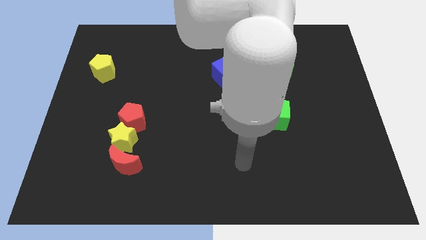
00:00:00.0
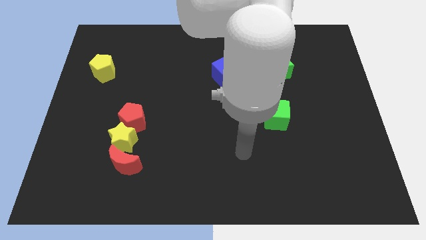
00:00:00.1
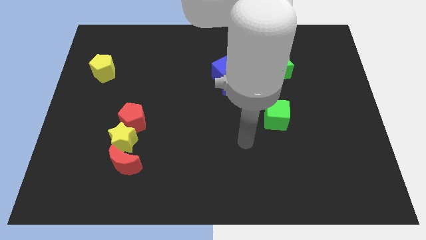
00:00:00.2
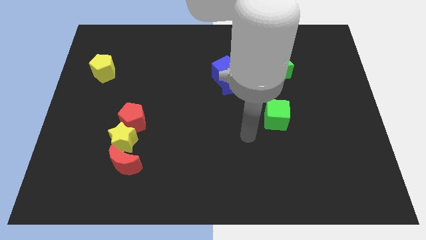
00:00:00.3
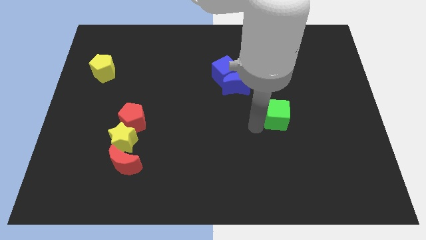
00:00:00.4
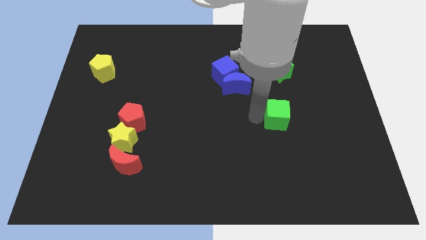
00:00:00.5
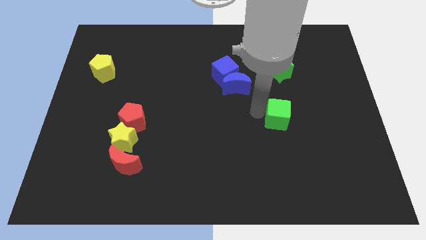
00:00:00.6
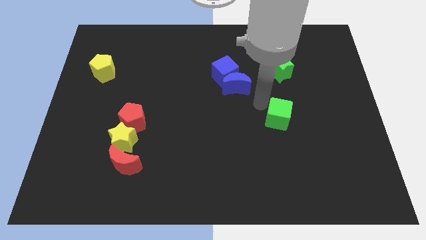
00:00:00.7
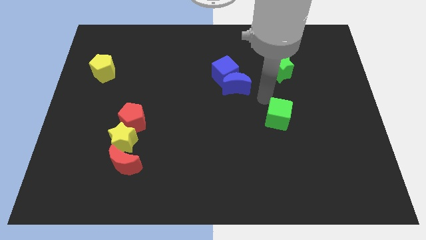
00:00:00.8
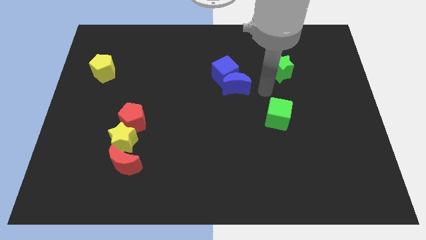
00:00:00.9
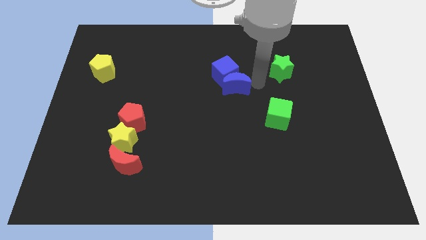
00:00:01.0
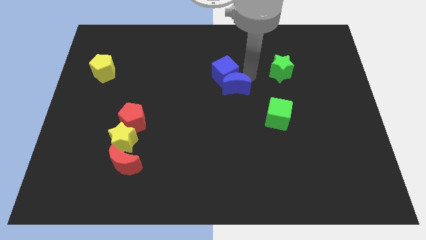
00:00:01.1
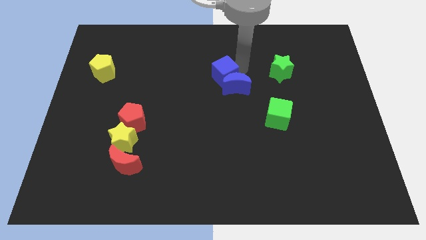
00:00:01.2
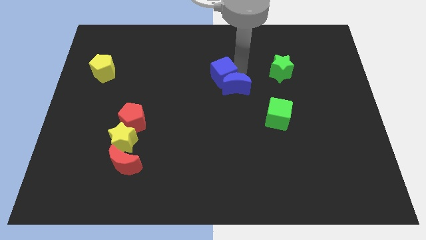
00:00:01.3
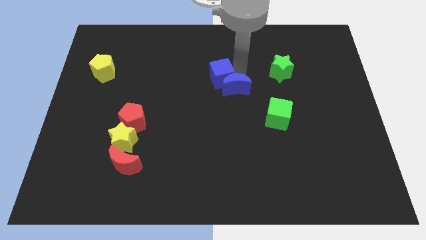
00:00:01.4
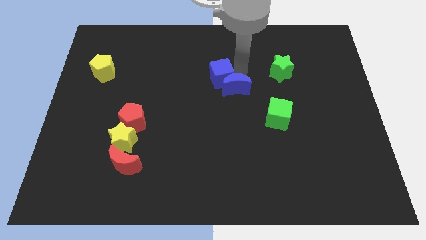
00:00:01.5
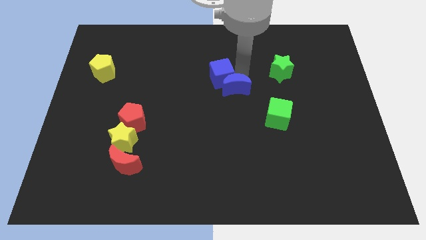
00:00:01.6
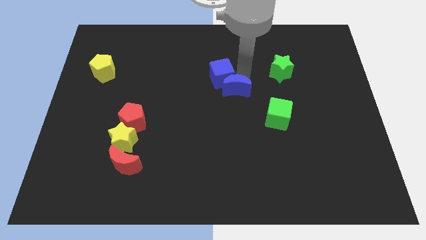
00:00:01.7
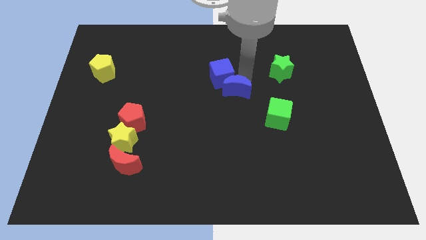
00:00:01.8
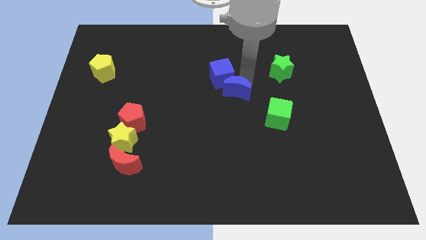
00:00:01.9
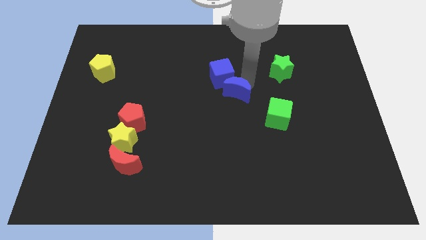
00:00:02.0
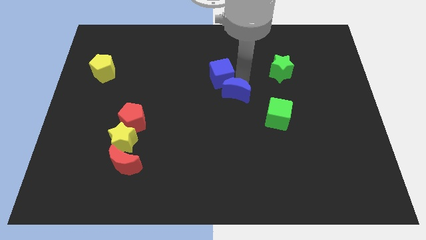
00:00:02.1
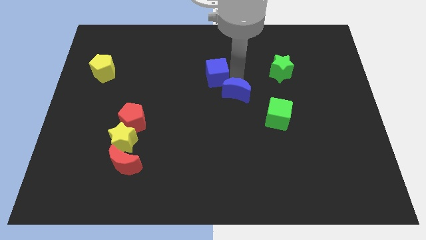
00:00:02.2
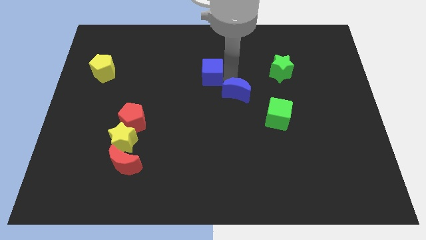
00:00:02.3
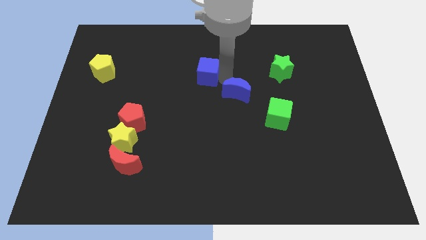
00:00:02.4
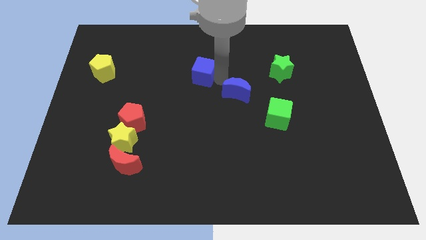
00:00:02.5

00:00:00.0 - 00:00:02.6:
move the blue moon away from the blue cube

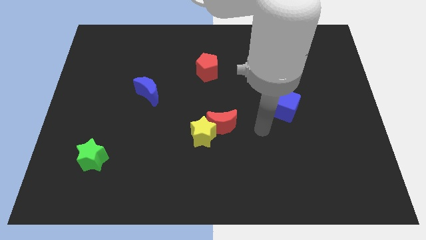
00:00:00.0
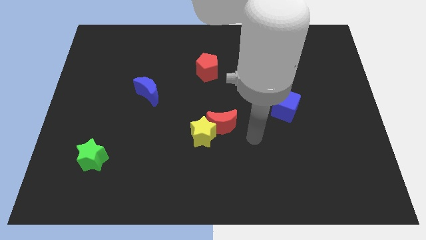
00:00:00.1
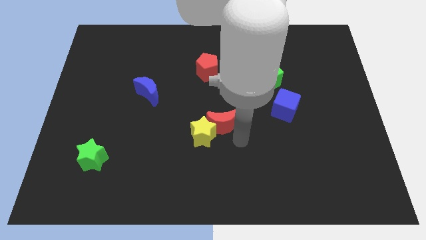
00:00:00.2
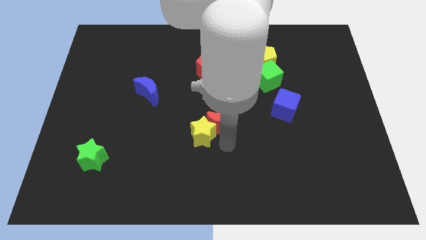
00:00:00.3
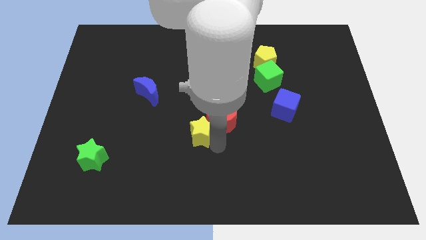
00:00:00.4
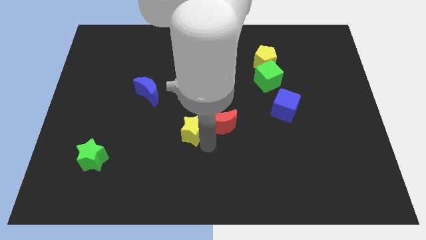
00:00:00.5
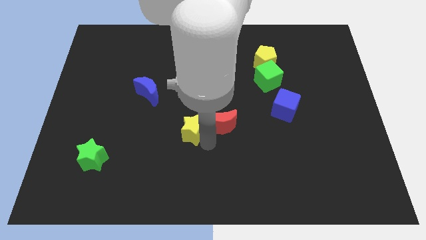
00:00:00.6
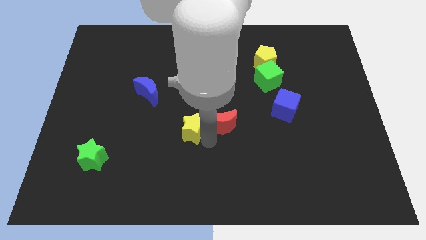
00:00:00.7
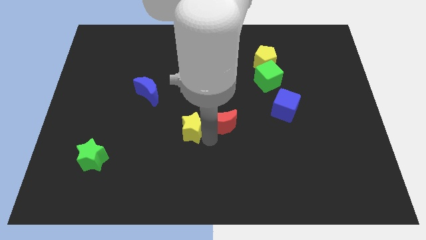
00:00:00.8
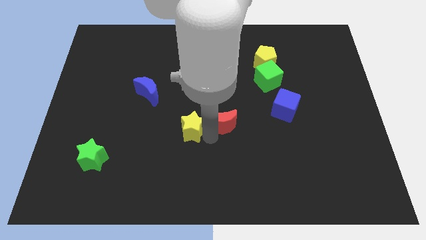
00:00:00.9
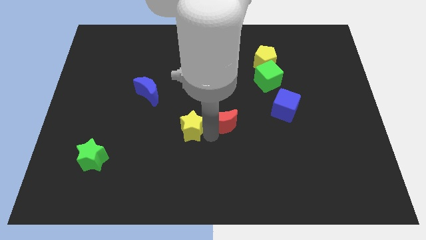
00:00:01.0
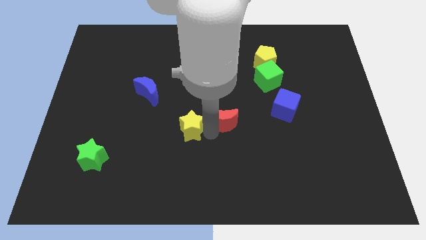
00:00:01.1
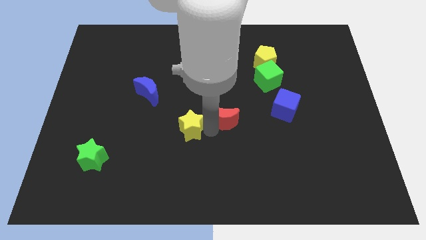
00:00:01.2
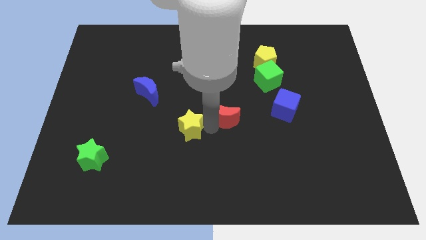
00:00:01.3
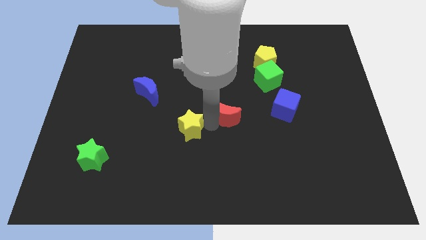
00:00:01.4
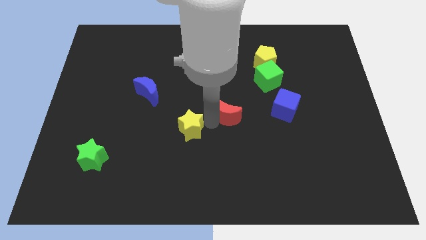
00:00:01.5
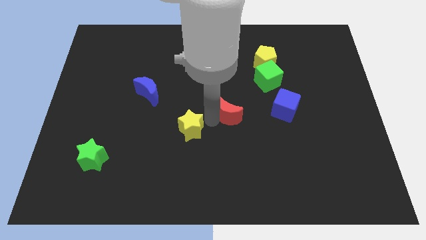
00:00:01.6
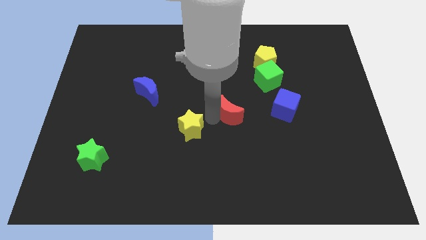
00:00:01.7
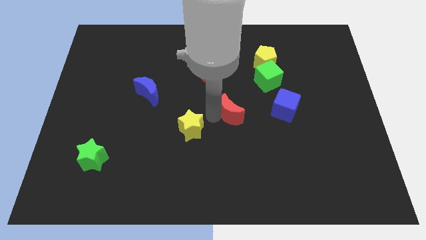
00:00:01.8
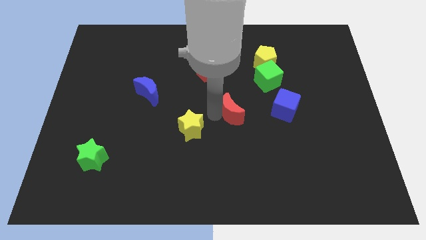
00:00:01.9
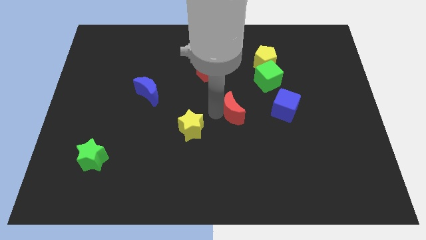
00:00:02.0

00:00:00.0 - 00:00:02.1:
pull the red moon apart from the yellow star

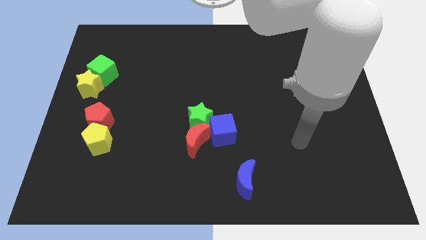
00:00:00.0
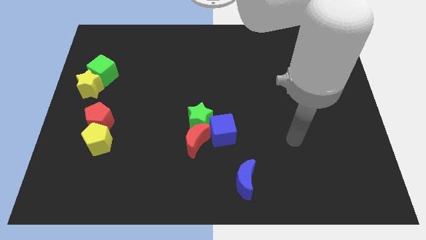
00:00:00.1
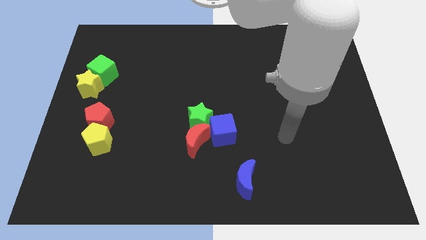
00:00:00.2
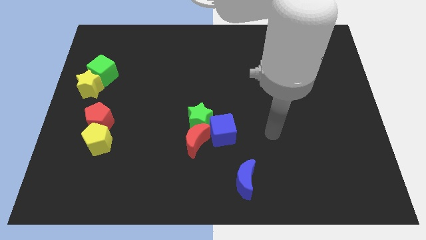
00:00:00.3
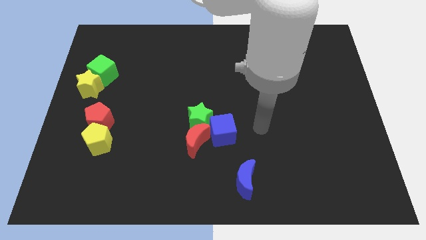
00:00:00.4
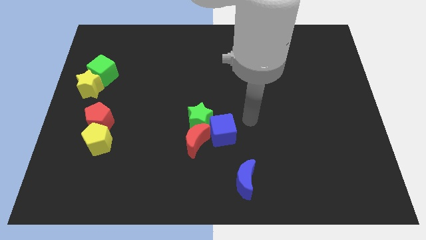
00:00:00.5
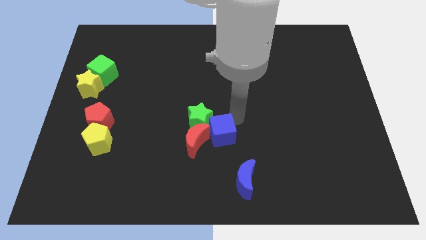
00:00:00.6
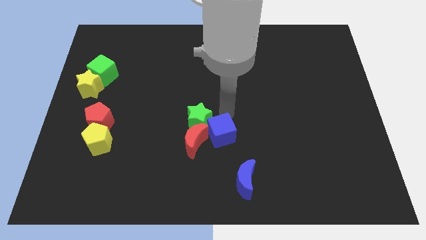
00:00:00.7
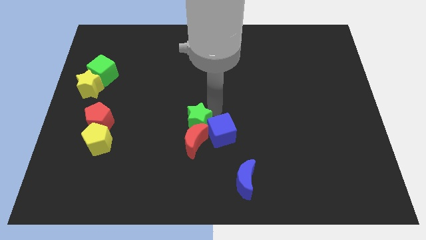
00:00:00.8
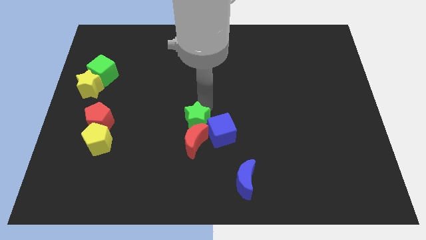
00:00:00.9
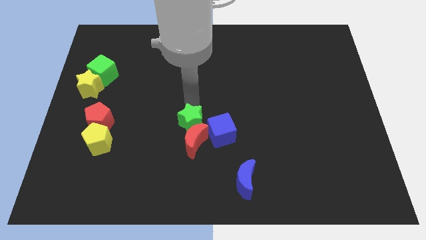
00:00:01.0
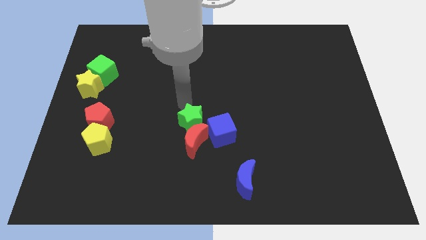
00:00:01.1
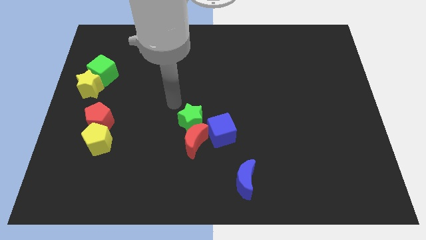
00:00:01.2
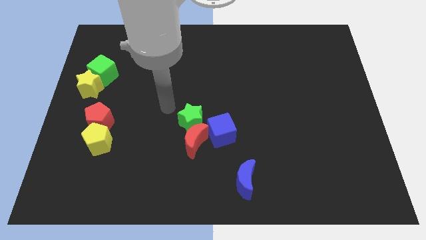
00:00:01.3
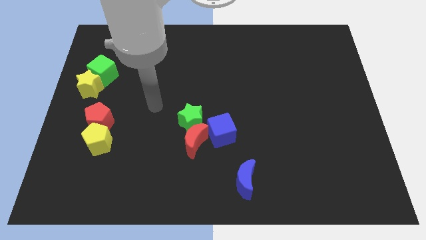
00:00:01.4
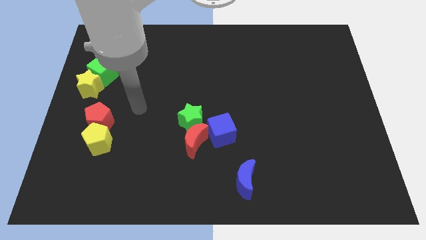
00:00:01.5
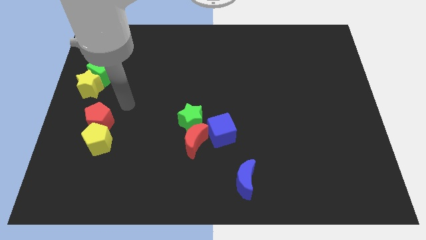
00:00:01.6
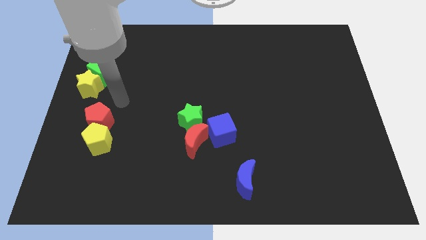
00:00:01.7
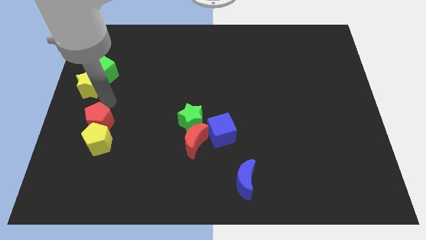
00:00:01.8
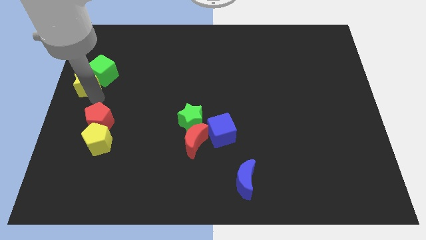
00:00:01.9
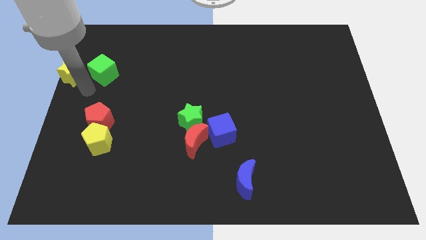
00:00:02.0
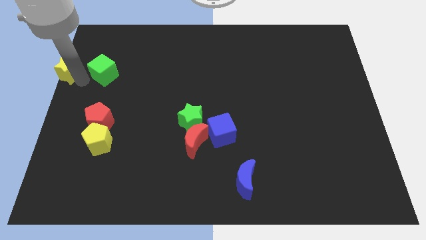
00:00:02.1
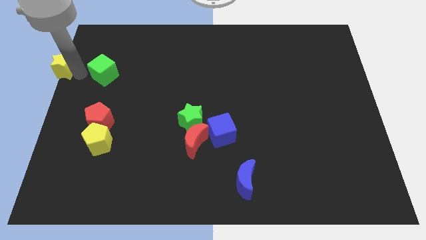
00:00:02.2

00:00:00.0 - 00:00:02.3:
pull the green cube apart from the yellow star

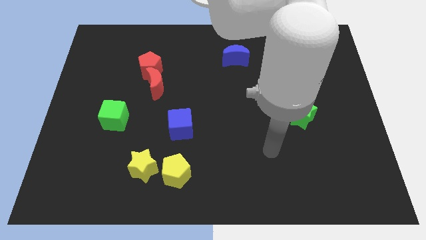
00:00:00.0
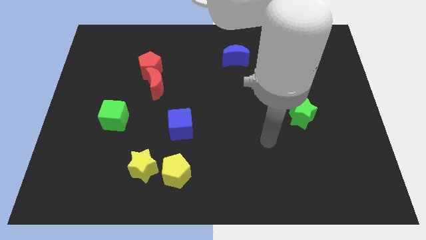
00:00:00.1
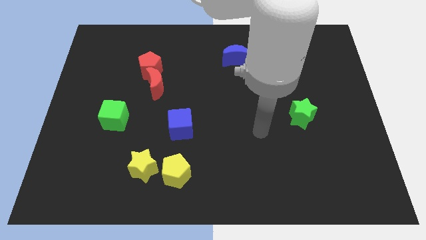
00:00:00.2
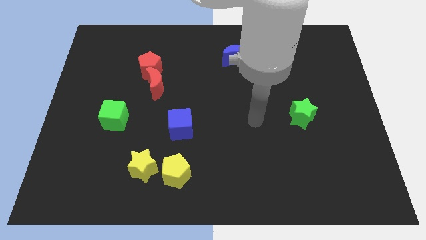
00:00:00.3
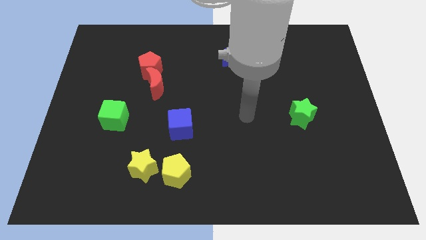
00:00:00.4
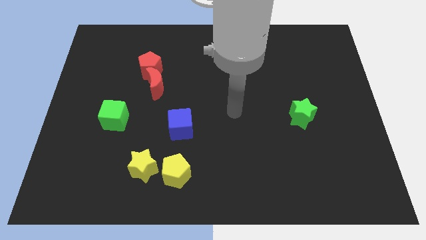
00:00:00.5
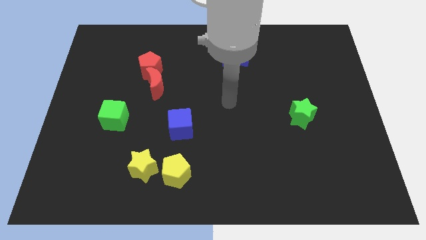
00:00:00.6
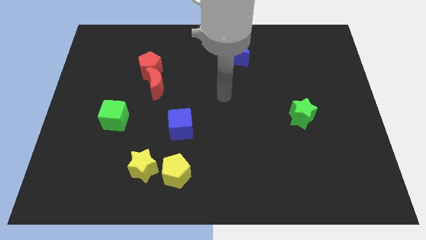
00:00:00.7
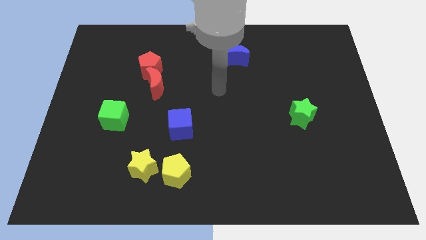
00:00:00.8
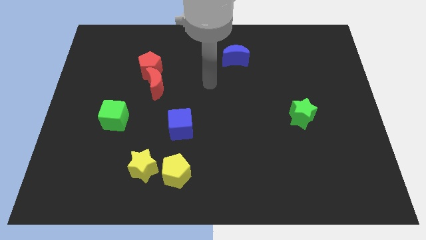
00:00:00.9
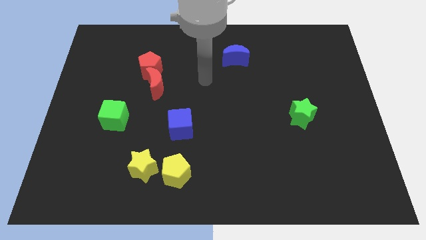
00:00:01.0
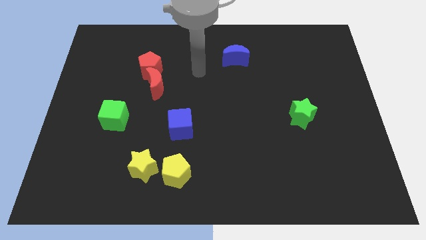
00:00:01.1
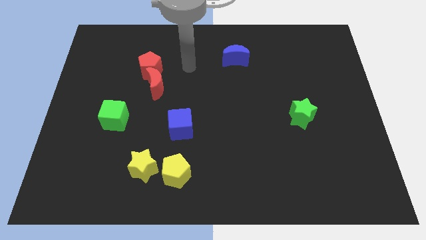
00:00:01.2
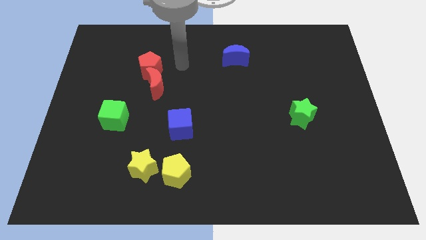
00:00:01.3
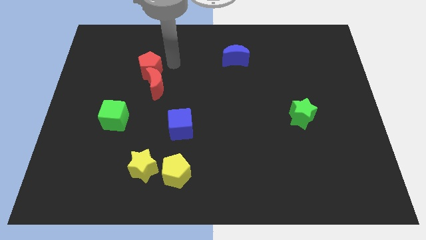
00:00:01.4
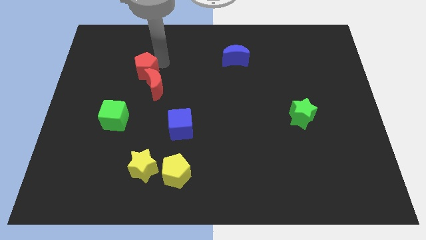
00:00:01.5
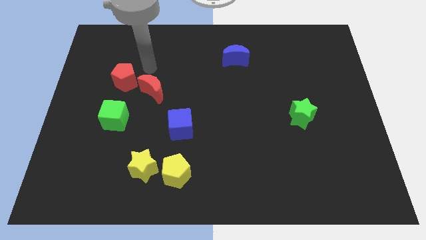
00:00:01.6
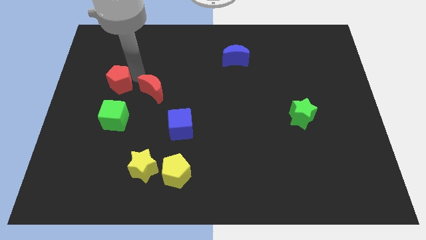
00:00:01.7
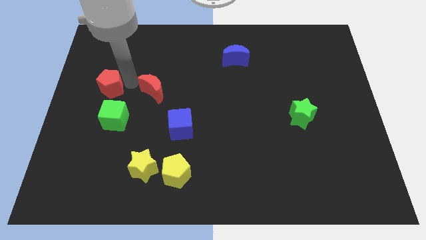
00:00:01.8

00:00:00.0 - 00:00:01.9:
pull the red moon apart from the red pentagon

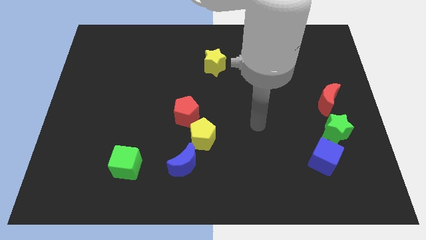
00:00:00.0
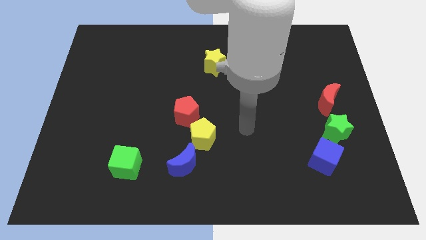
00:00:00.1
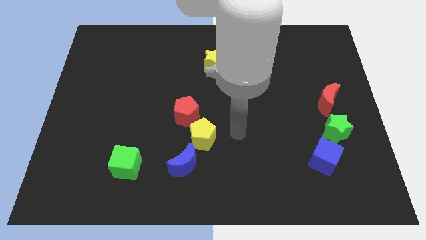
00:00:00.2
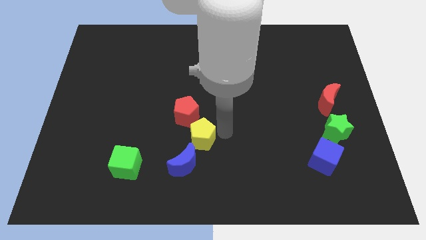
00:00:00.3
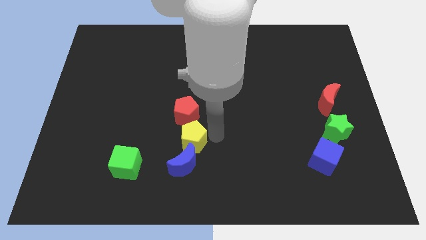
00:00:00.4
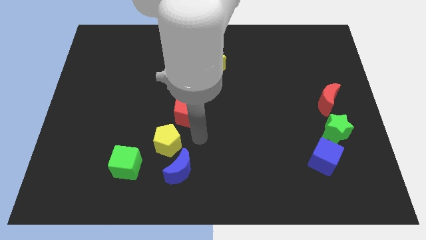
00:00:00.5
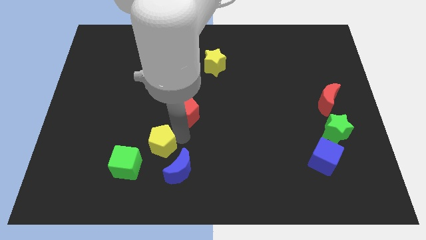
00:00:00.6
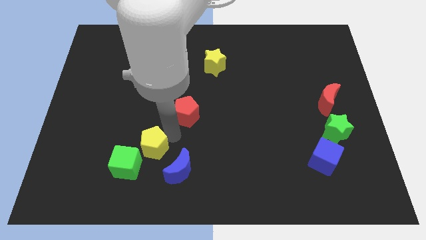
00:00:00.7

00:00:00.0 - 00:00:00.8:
separate the red pentagon from the yellow pentagon
